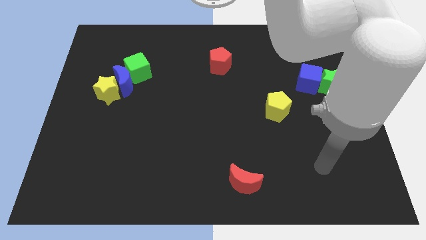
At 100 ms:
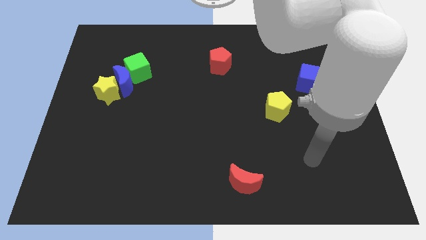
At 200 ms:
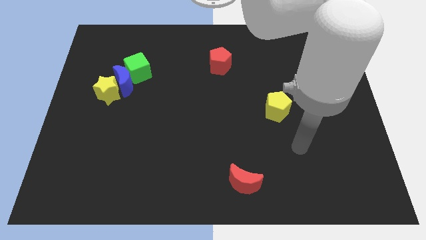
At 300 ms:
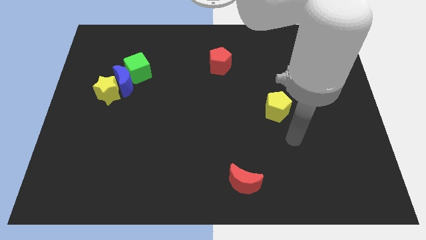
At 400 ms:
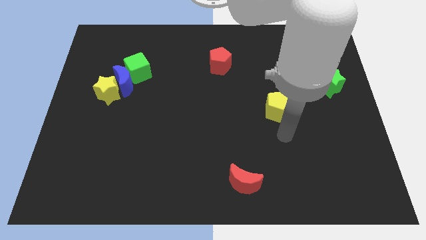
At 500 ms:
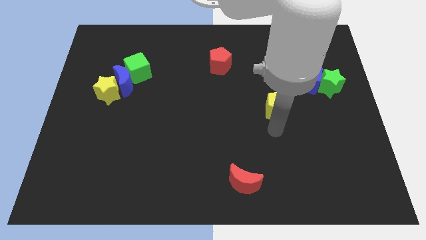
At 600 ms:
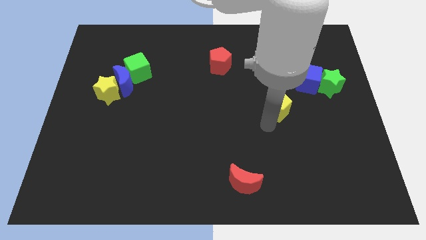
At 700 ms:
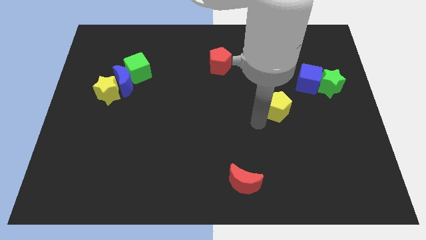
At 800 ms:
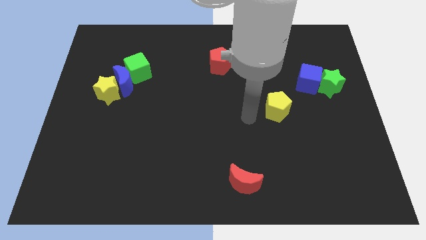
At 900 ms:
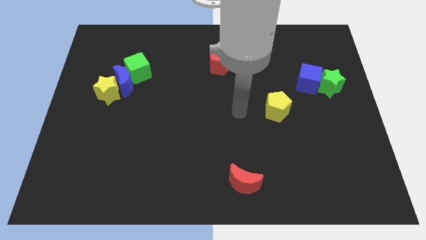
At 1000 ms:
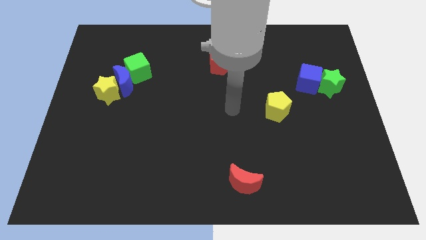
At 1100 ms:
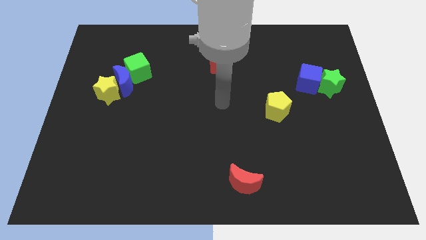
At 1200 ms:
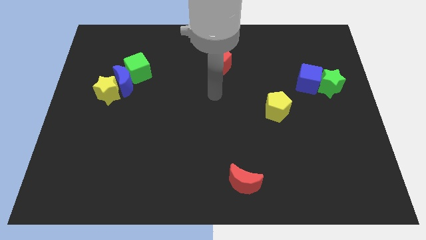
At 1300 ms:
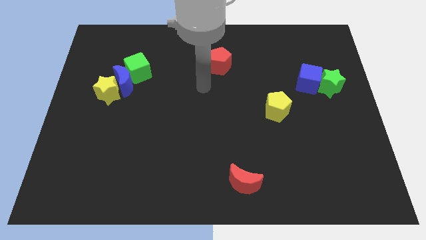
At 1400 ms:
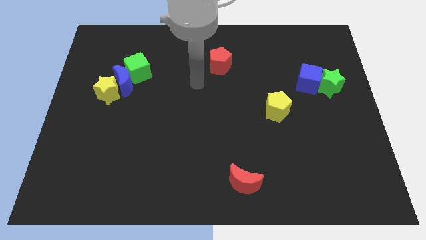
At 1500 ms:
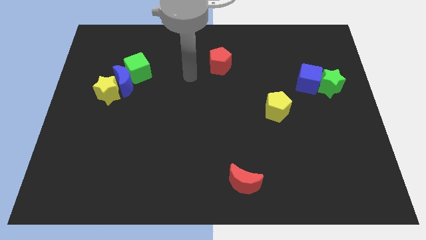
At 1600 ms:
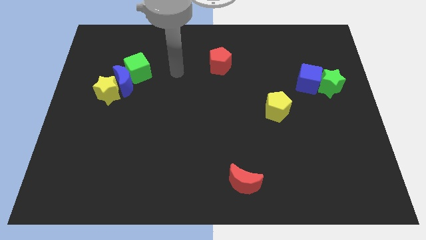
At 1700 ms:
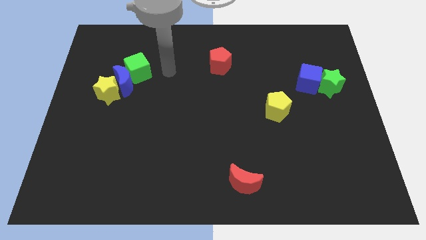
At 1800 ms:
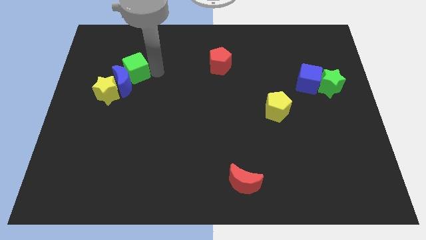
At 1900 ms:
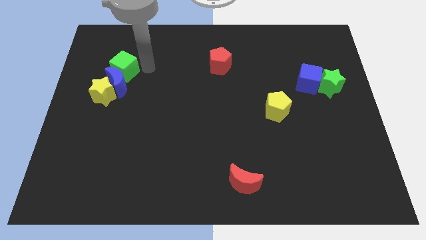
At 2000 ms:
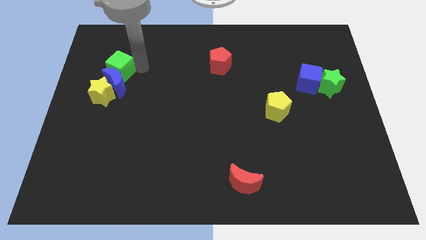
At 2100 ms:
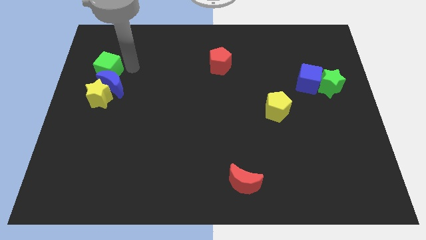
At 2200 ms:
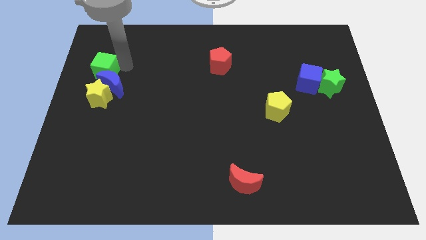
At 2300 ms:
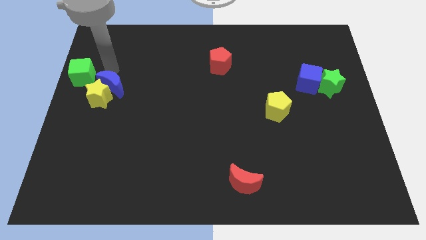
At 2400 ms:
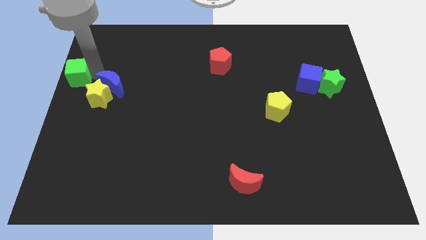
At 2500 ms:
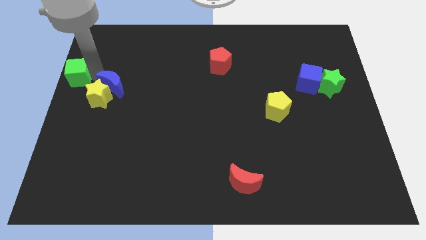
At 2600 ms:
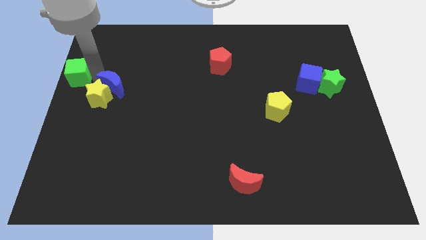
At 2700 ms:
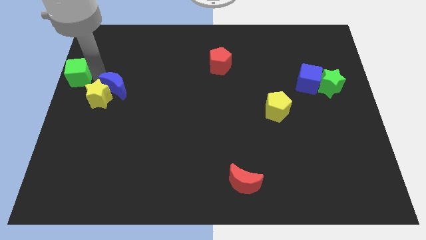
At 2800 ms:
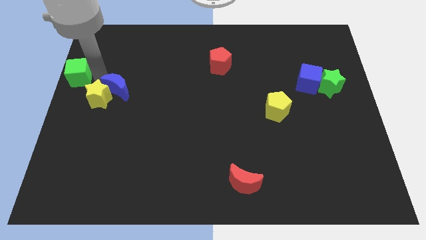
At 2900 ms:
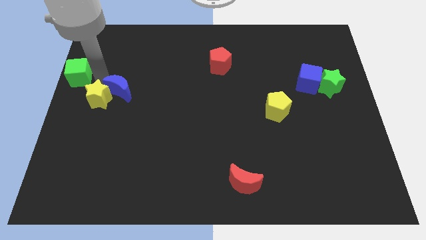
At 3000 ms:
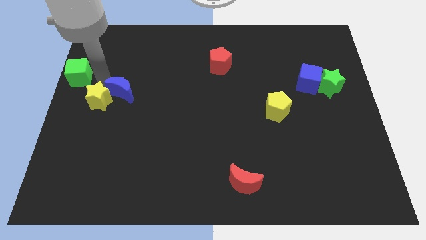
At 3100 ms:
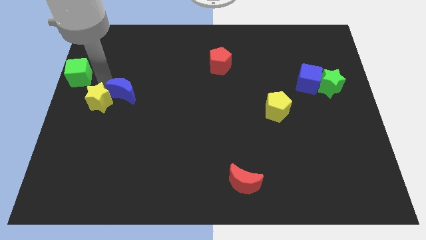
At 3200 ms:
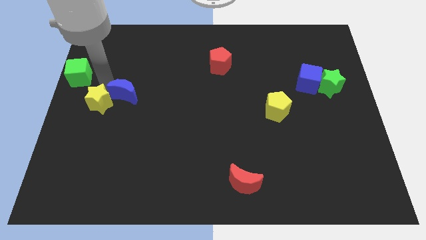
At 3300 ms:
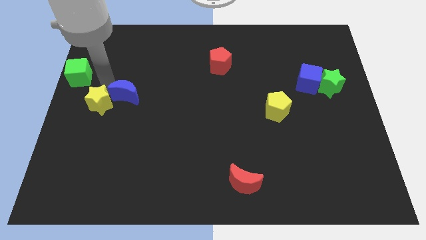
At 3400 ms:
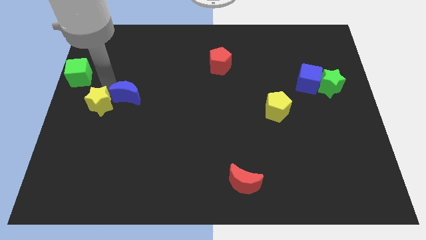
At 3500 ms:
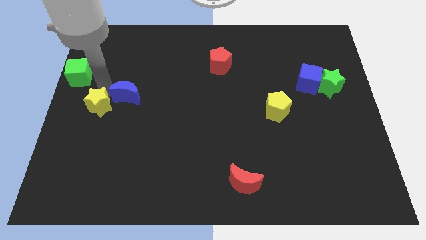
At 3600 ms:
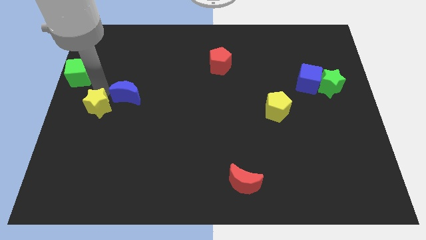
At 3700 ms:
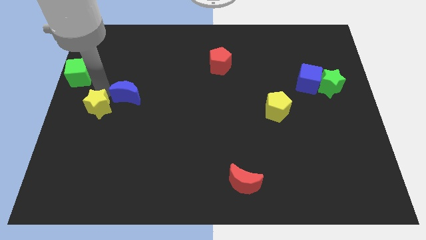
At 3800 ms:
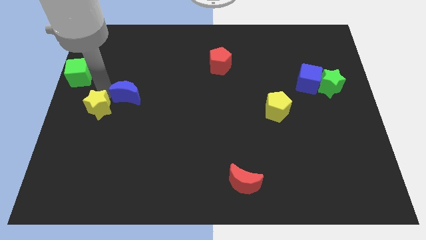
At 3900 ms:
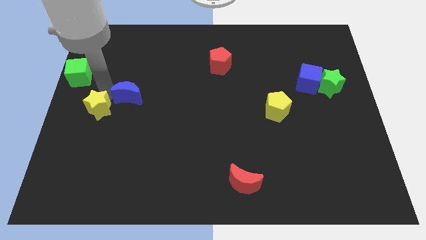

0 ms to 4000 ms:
pull the blue moon apart from the yellow star and green cube

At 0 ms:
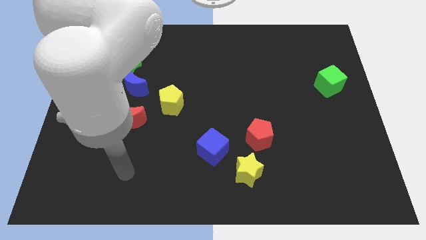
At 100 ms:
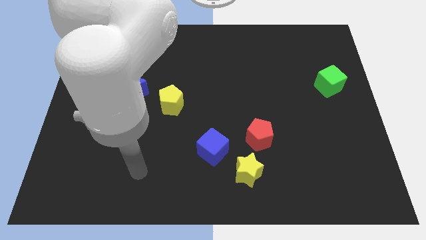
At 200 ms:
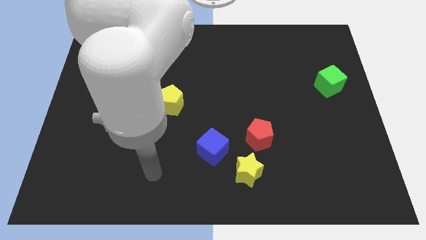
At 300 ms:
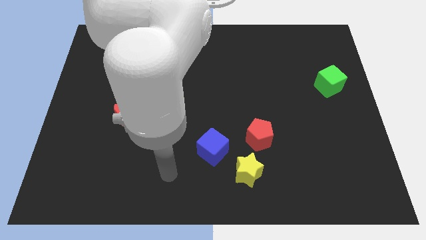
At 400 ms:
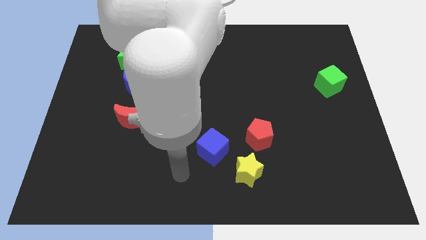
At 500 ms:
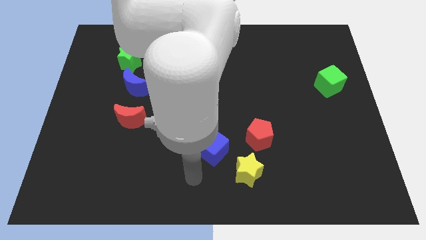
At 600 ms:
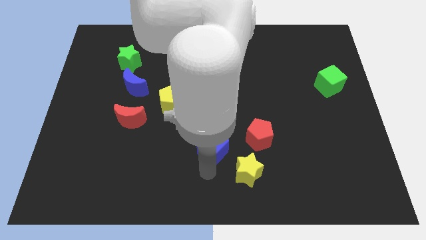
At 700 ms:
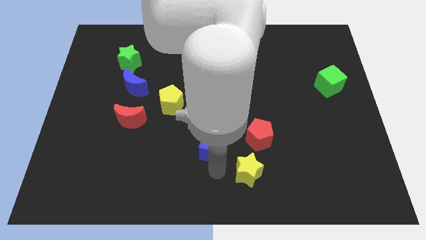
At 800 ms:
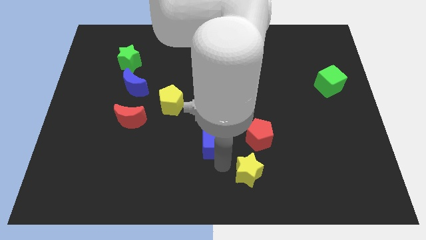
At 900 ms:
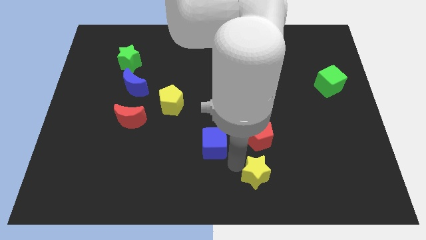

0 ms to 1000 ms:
pull the blue cube apart from the yellow star

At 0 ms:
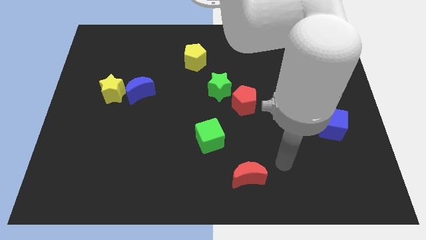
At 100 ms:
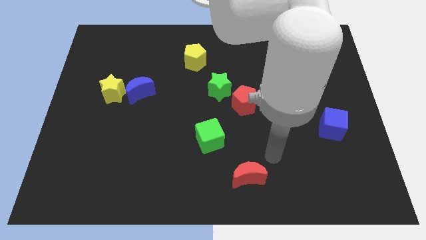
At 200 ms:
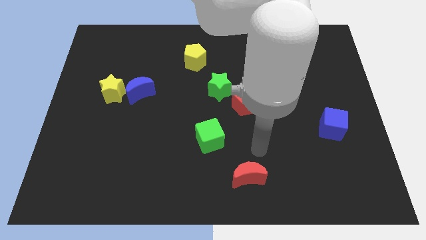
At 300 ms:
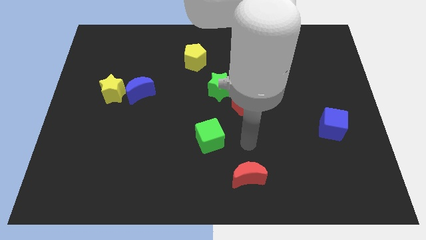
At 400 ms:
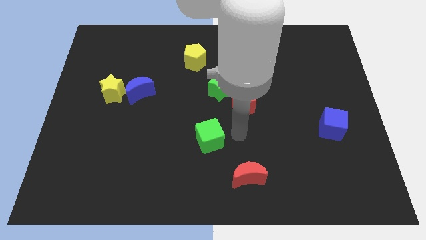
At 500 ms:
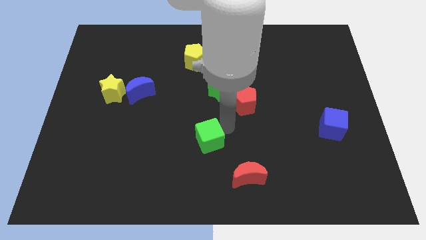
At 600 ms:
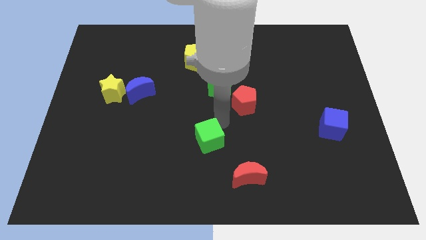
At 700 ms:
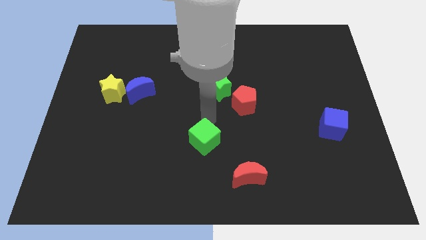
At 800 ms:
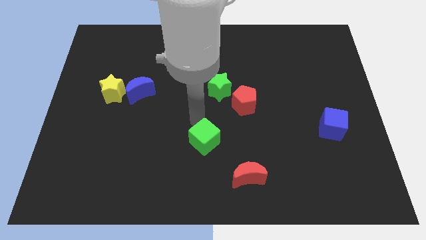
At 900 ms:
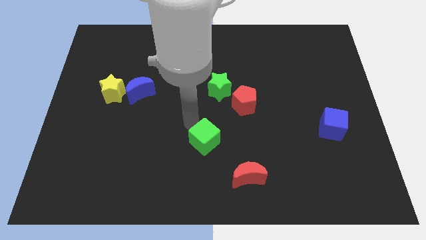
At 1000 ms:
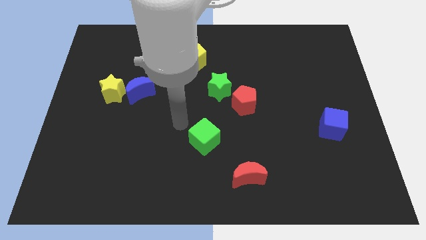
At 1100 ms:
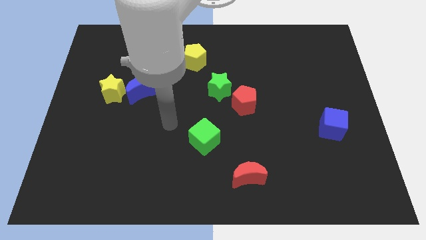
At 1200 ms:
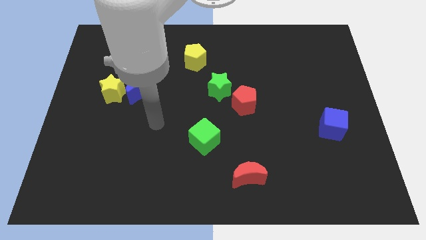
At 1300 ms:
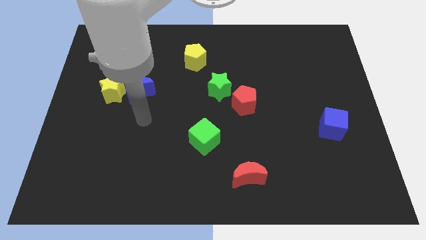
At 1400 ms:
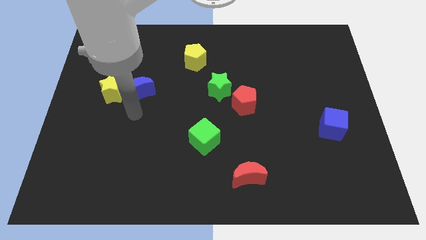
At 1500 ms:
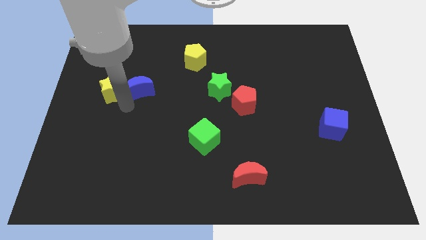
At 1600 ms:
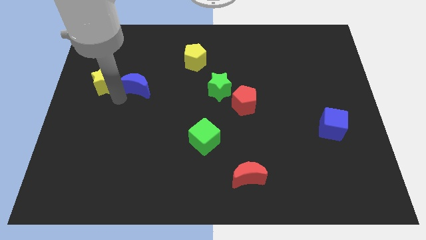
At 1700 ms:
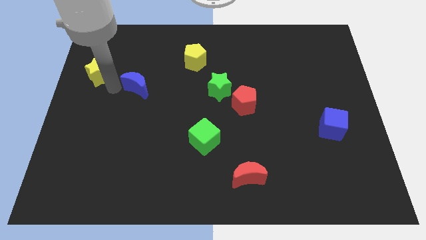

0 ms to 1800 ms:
separate the blue moon from the yellow star

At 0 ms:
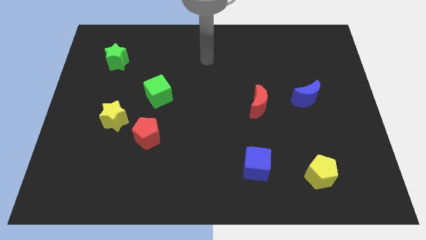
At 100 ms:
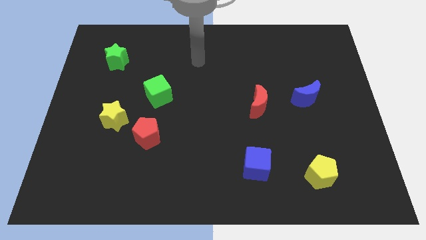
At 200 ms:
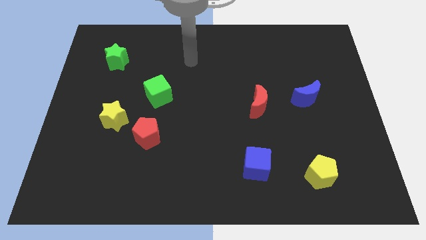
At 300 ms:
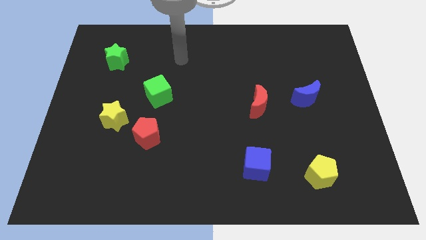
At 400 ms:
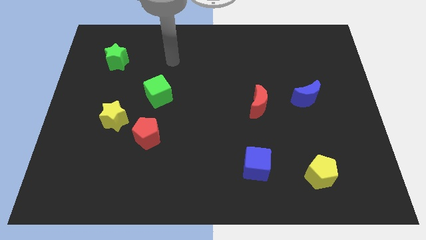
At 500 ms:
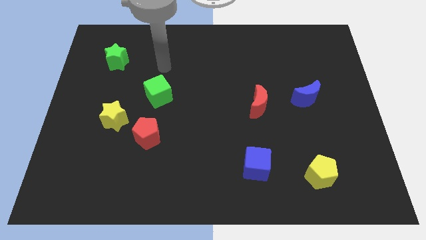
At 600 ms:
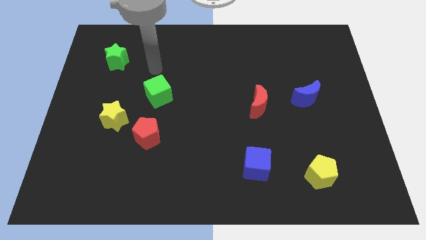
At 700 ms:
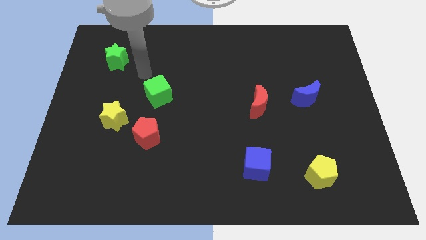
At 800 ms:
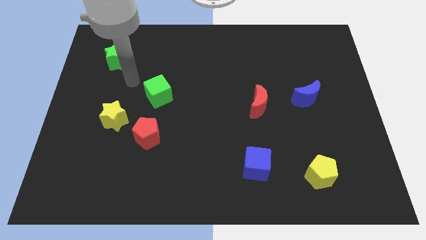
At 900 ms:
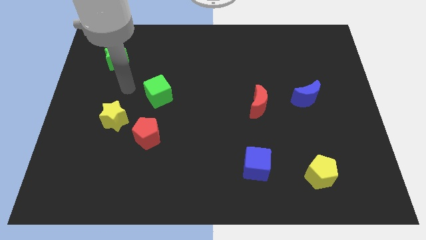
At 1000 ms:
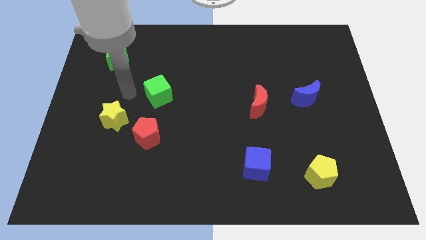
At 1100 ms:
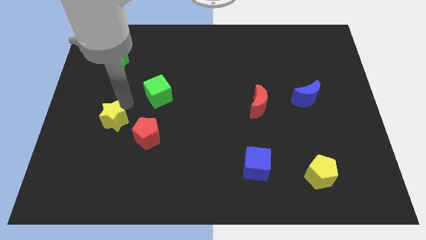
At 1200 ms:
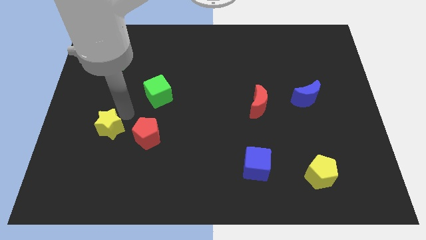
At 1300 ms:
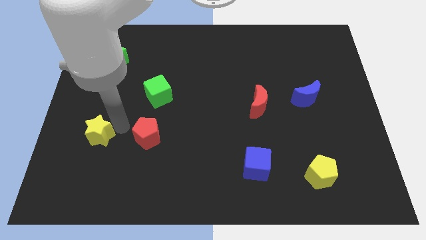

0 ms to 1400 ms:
pull the red pentagon apart from the yellow star

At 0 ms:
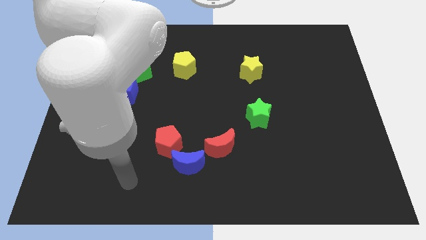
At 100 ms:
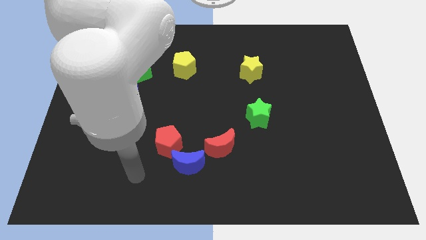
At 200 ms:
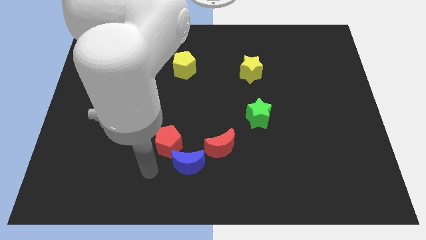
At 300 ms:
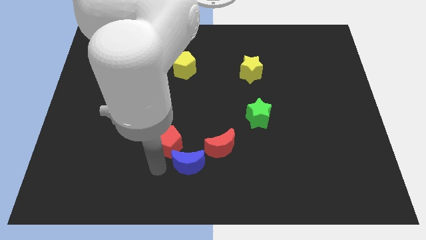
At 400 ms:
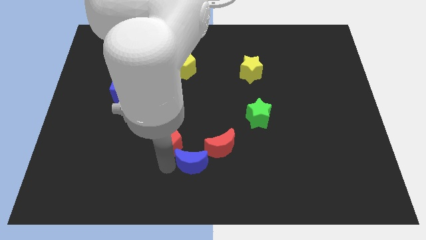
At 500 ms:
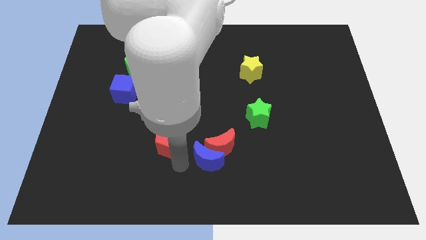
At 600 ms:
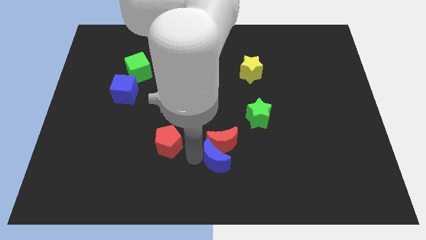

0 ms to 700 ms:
pull the red pentagon apart from the blue moon

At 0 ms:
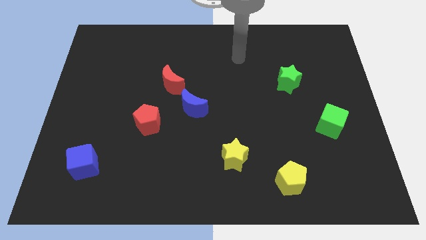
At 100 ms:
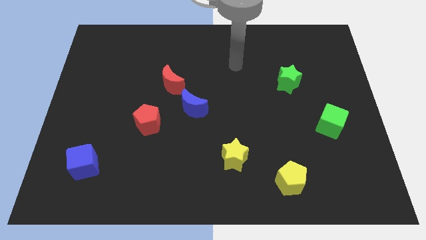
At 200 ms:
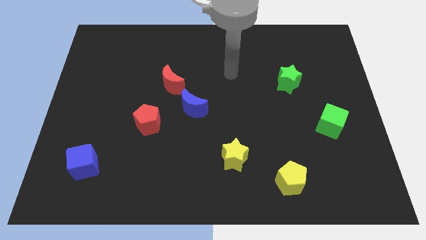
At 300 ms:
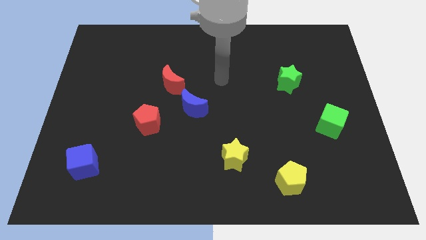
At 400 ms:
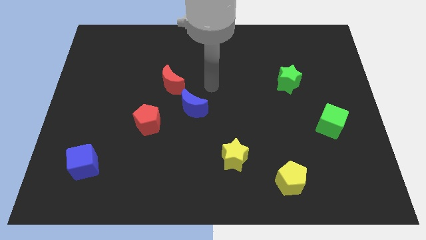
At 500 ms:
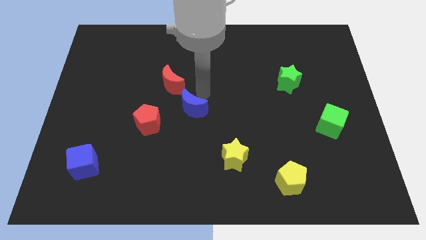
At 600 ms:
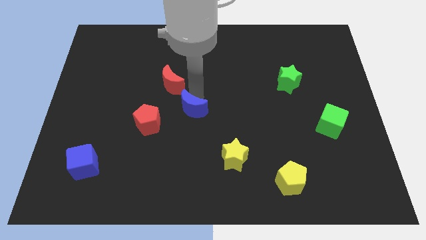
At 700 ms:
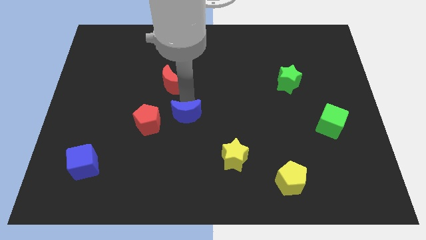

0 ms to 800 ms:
separate the red moon from the blue moon
